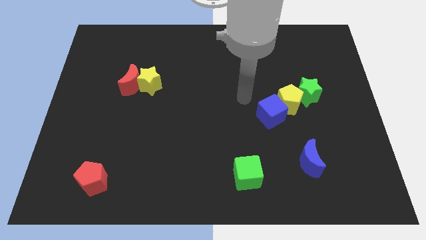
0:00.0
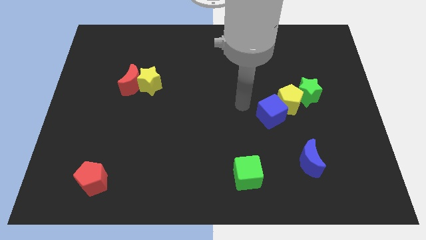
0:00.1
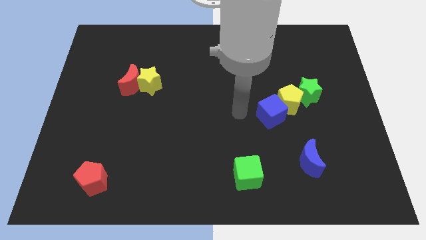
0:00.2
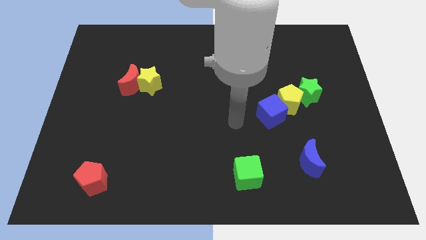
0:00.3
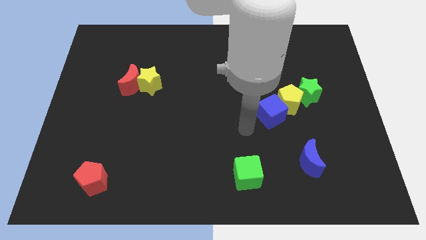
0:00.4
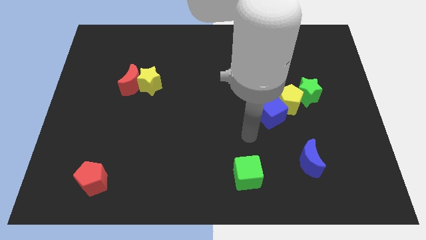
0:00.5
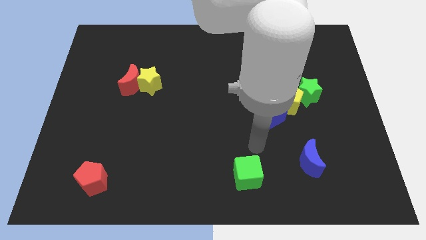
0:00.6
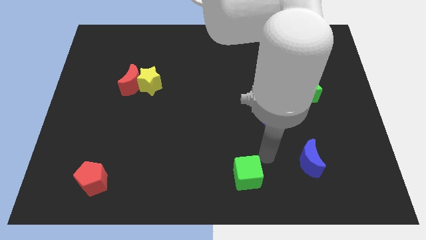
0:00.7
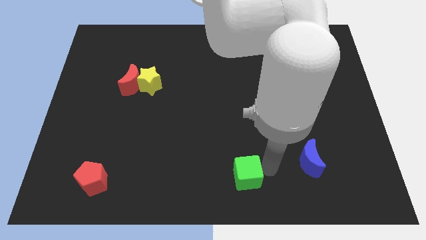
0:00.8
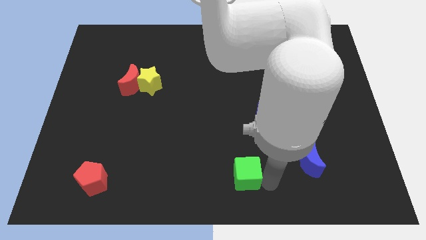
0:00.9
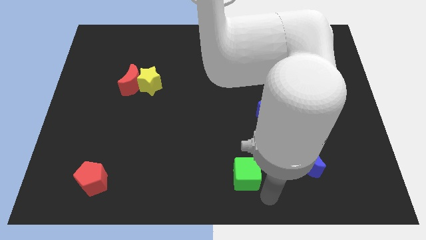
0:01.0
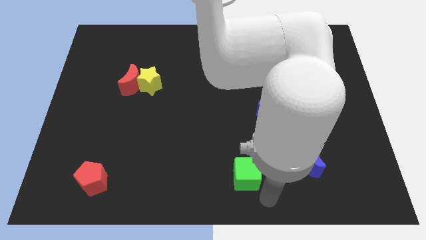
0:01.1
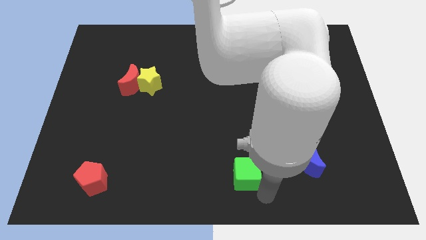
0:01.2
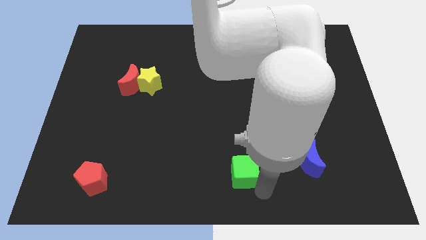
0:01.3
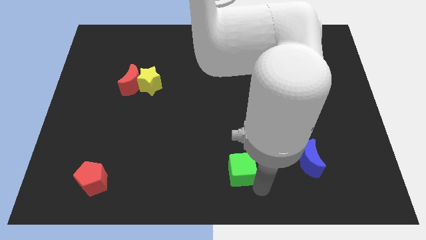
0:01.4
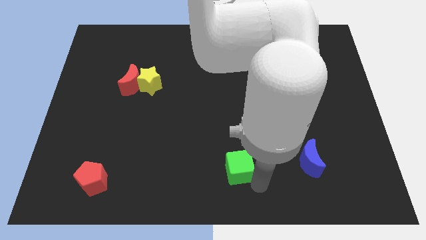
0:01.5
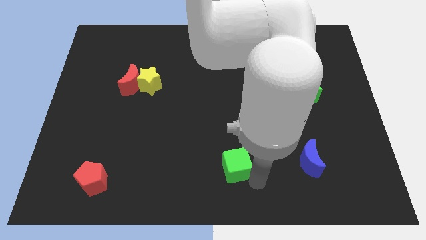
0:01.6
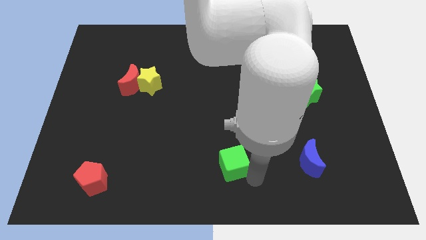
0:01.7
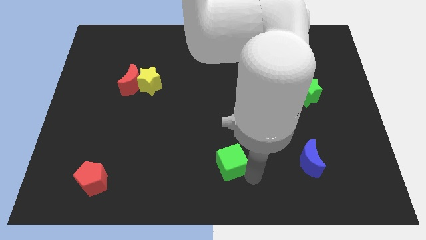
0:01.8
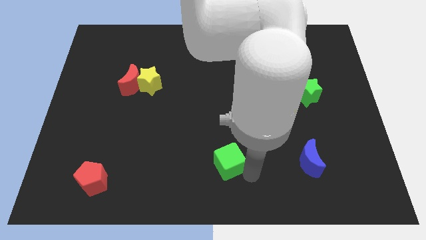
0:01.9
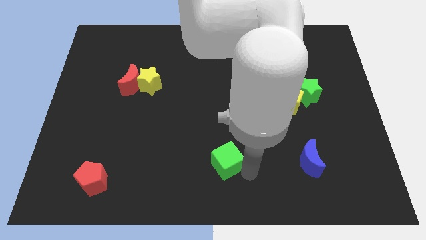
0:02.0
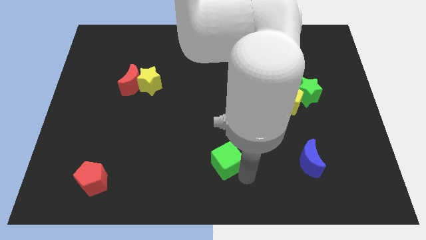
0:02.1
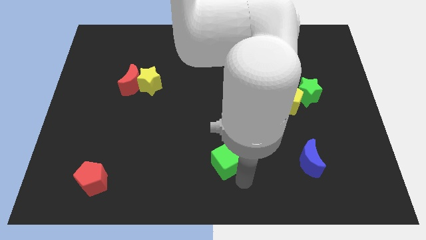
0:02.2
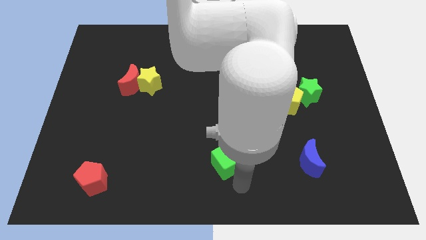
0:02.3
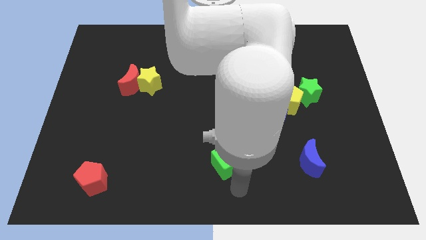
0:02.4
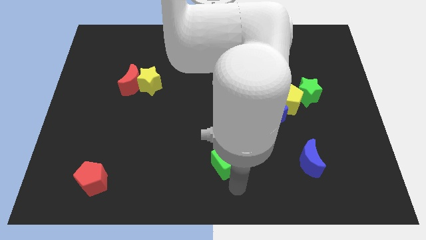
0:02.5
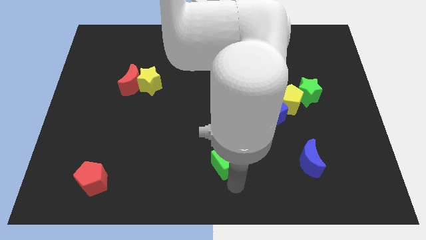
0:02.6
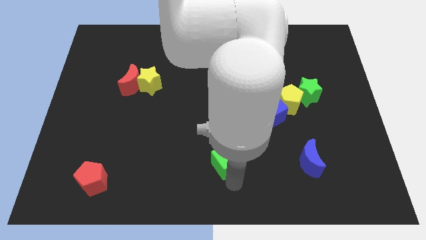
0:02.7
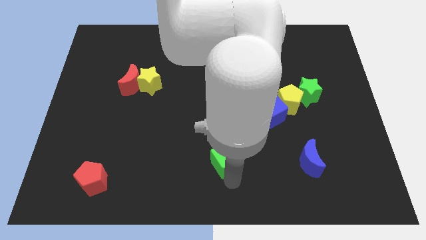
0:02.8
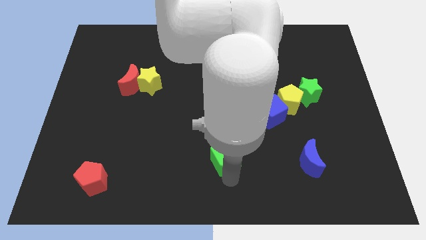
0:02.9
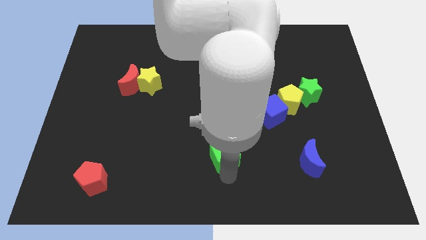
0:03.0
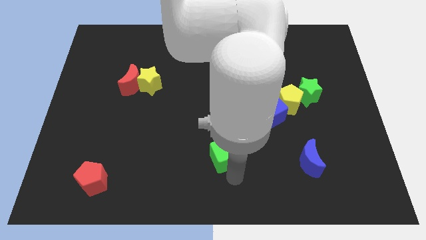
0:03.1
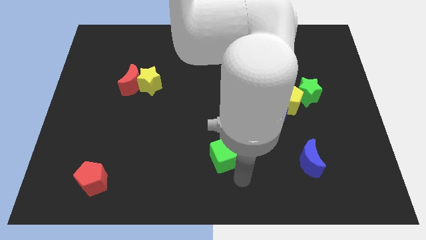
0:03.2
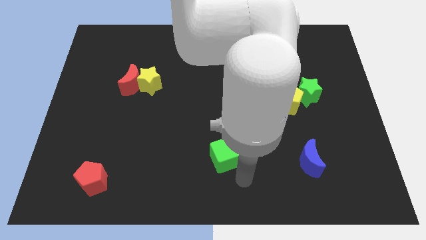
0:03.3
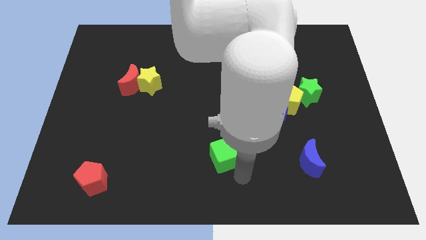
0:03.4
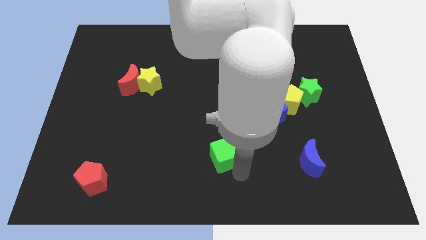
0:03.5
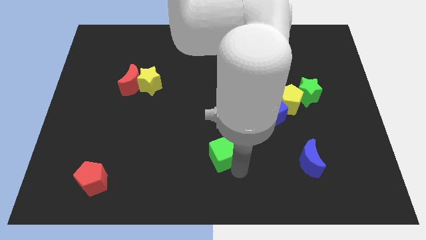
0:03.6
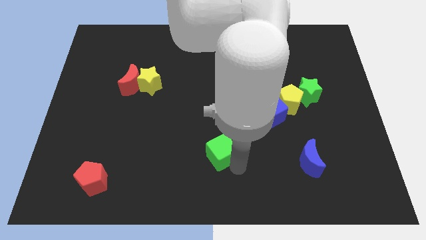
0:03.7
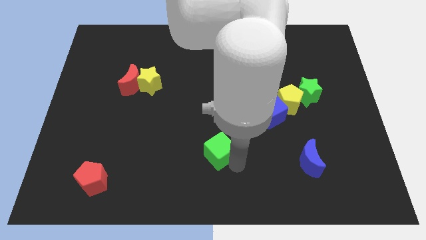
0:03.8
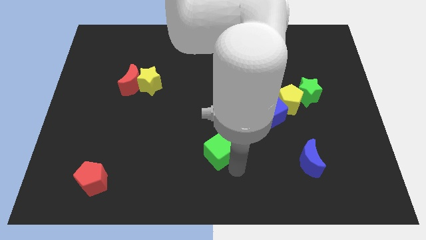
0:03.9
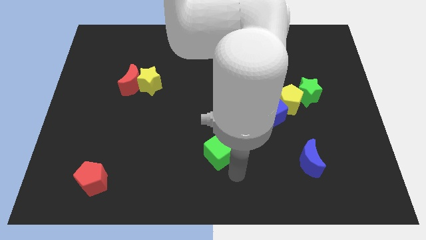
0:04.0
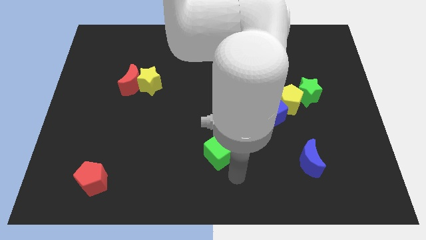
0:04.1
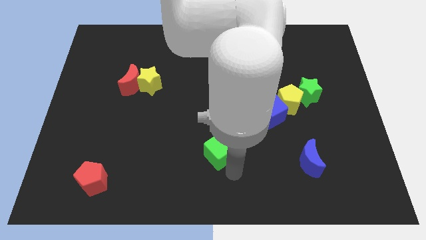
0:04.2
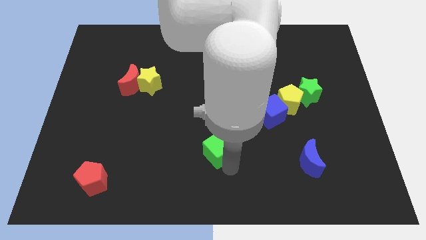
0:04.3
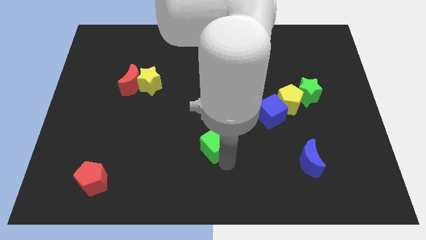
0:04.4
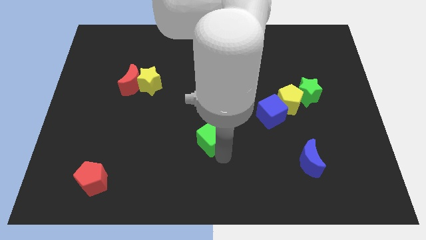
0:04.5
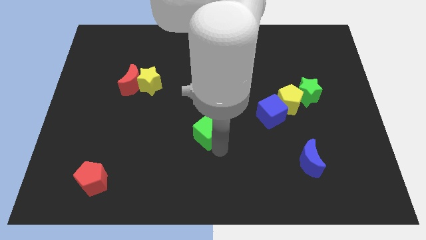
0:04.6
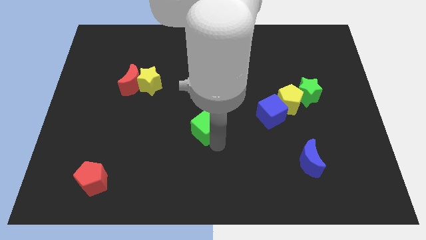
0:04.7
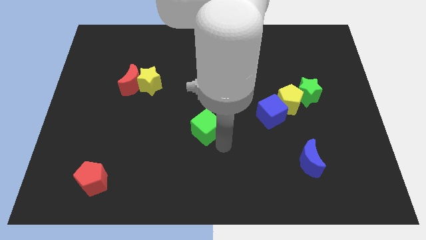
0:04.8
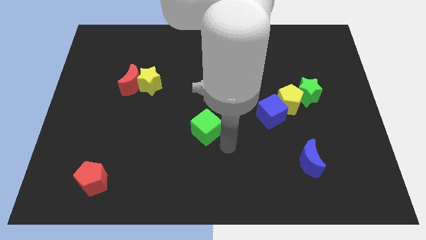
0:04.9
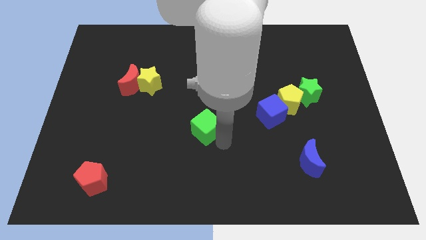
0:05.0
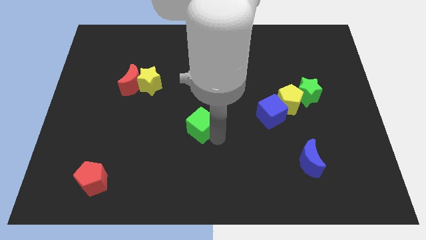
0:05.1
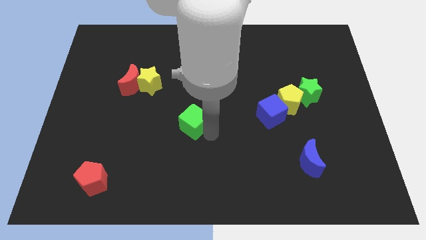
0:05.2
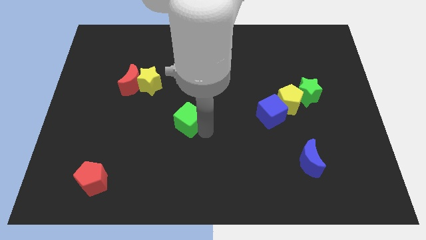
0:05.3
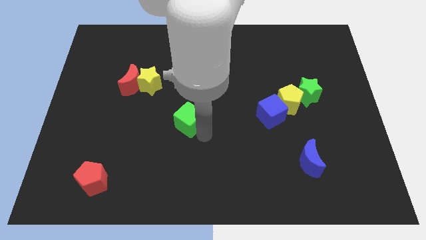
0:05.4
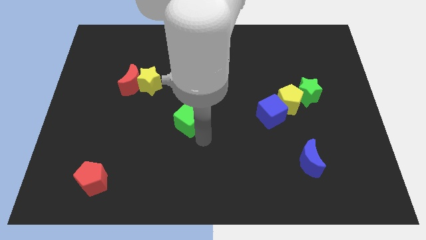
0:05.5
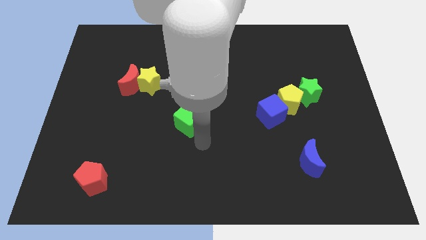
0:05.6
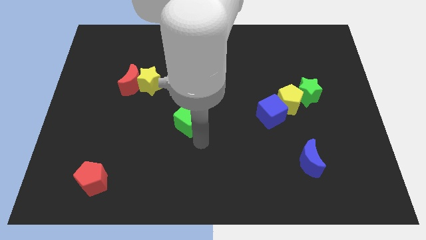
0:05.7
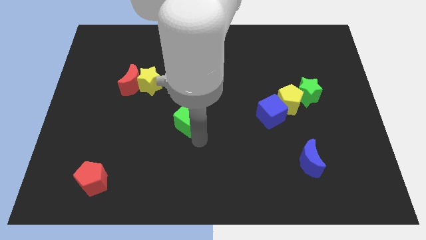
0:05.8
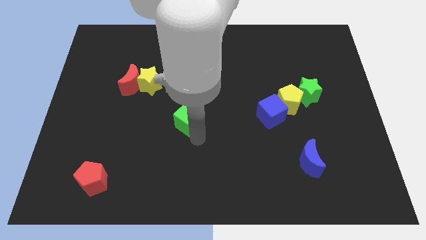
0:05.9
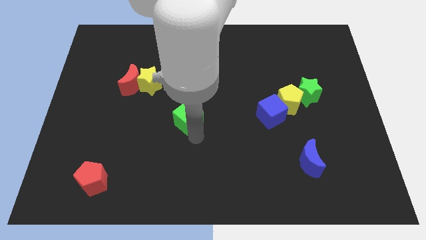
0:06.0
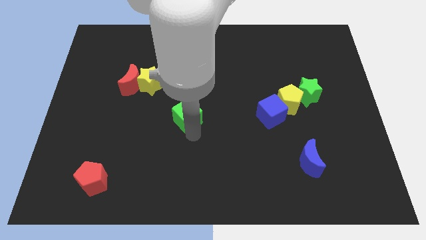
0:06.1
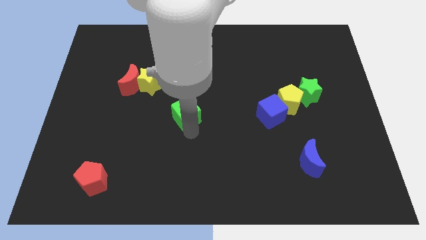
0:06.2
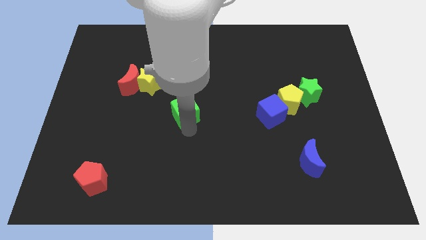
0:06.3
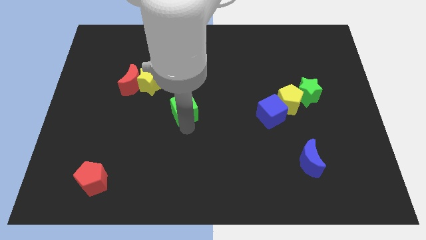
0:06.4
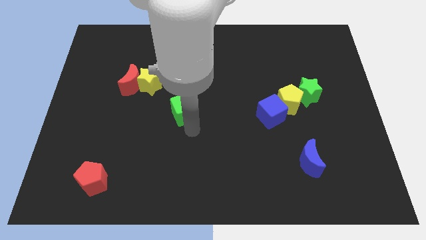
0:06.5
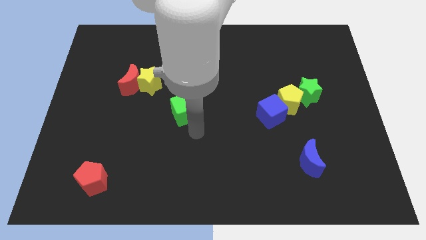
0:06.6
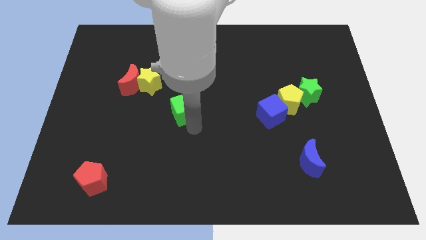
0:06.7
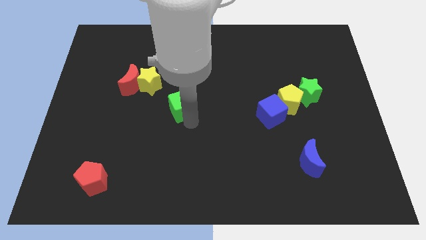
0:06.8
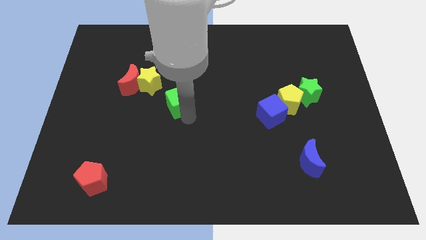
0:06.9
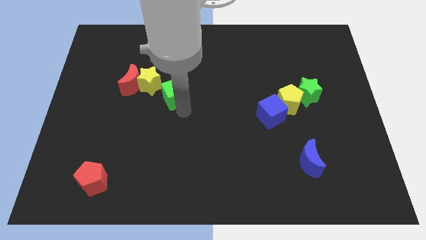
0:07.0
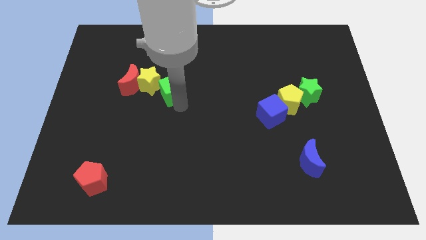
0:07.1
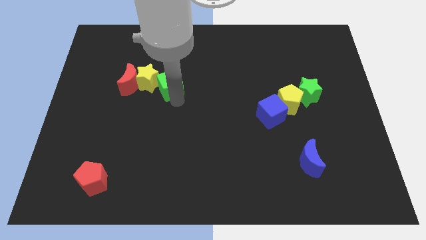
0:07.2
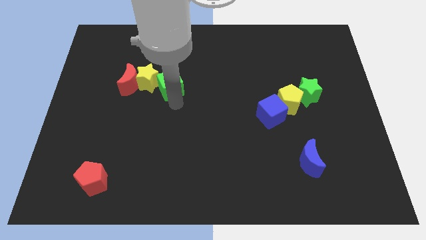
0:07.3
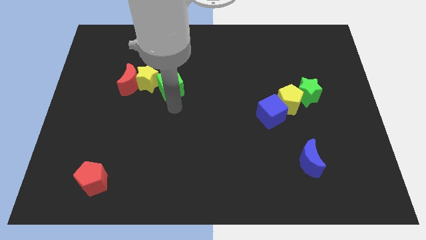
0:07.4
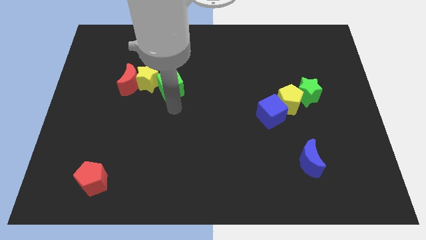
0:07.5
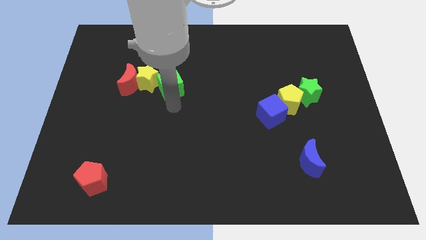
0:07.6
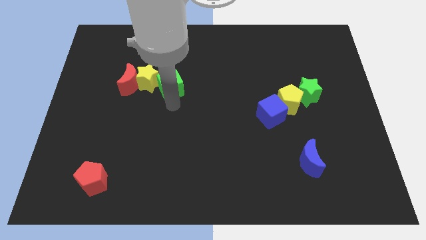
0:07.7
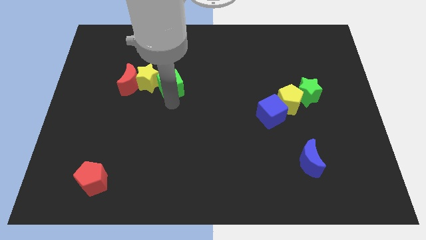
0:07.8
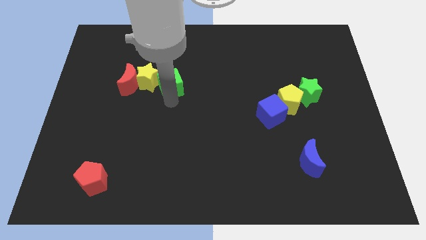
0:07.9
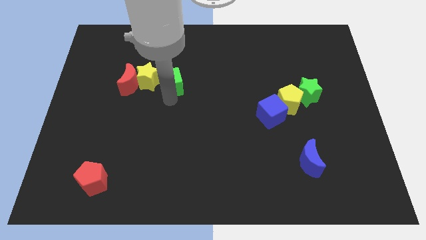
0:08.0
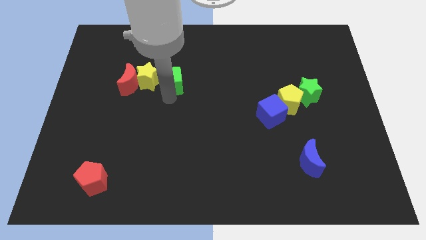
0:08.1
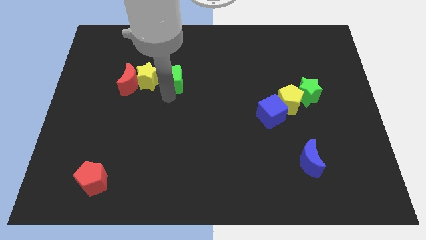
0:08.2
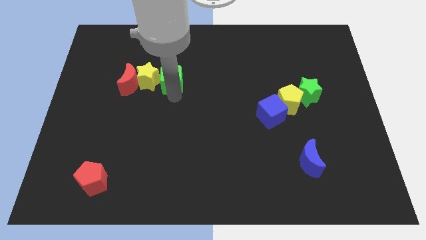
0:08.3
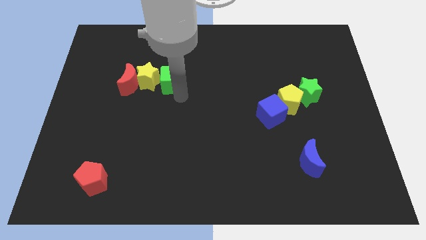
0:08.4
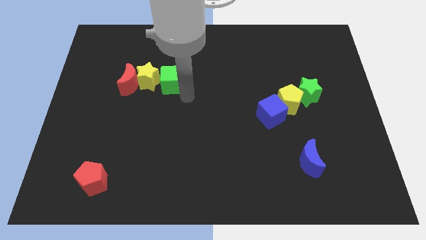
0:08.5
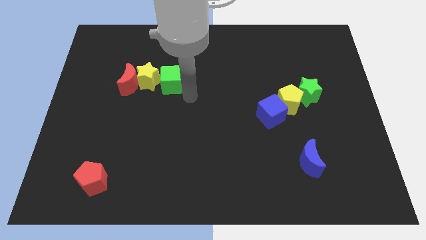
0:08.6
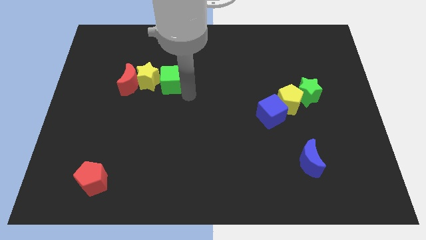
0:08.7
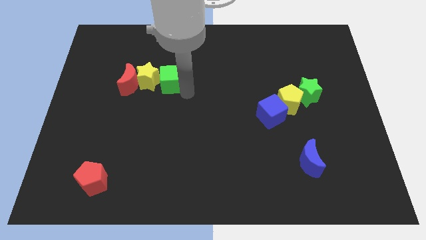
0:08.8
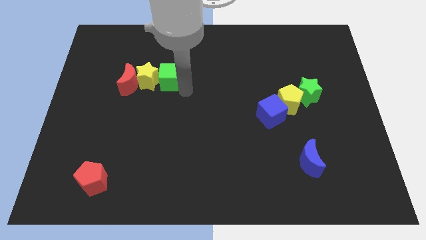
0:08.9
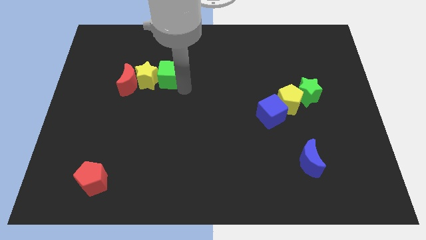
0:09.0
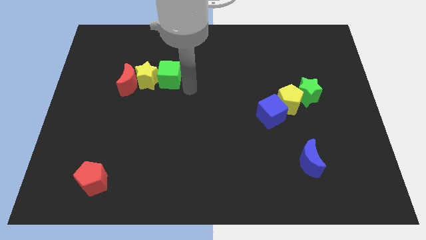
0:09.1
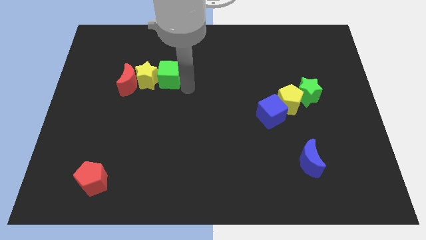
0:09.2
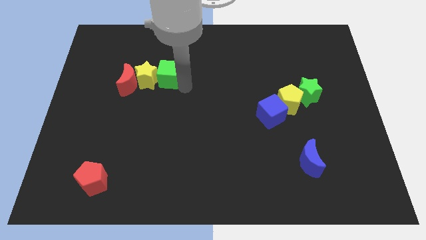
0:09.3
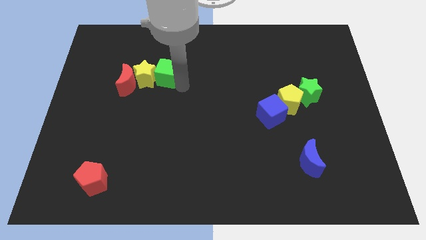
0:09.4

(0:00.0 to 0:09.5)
put the green cube to the top right of the red moon
